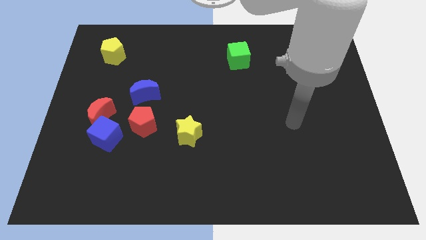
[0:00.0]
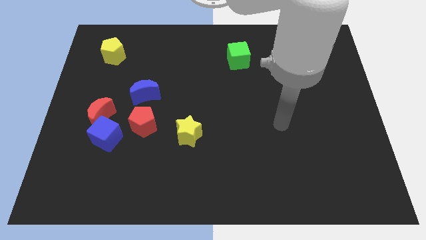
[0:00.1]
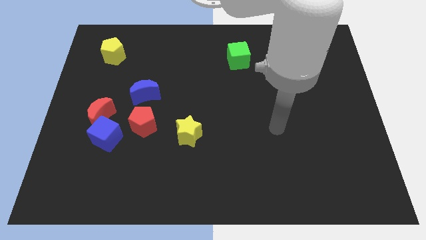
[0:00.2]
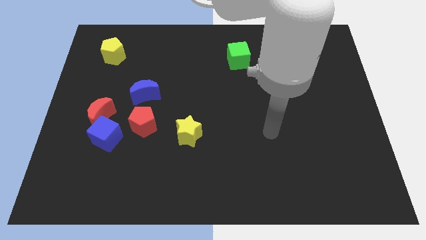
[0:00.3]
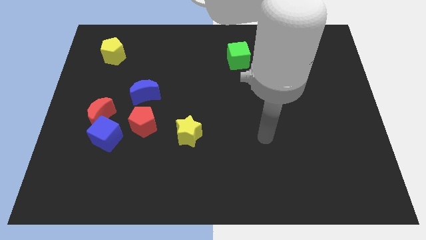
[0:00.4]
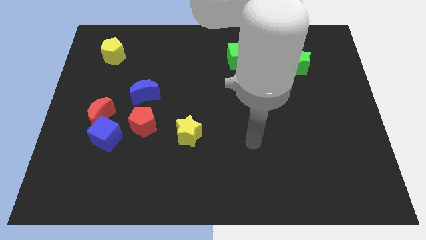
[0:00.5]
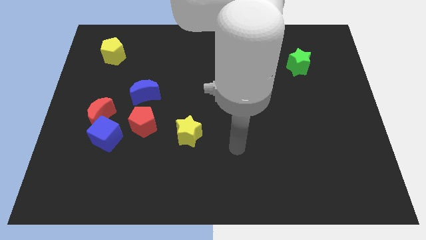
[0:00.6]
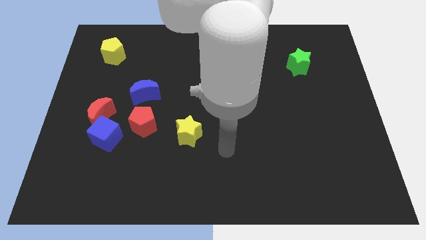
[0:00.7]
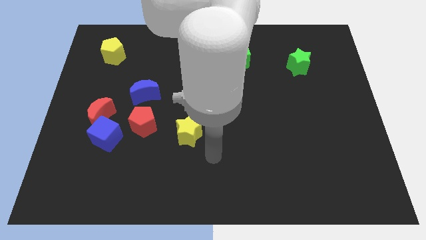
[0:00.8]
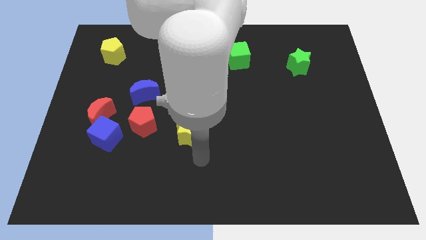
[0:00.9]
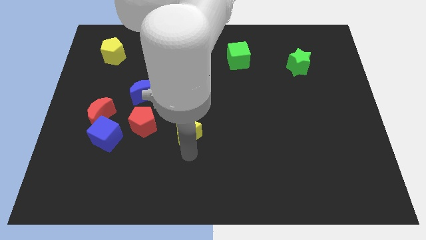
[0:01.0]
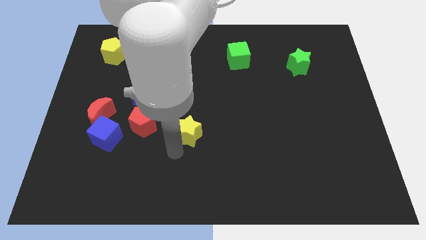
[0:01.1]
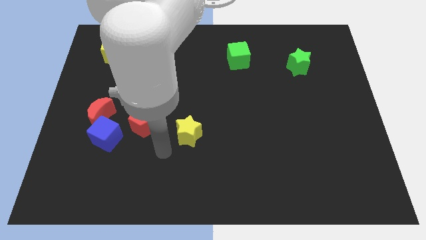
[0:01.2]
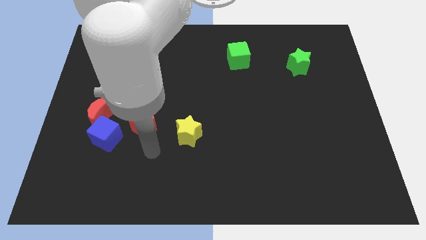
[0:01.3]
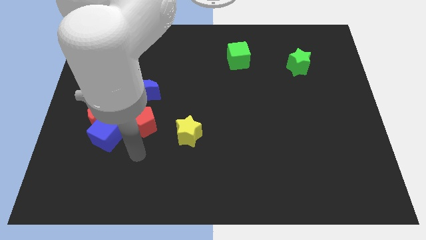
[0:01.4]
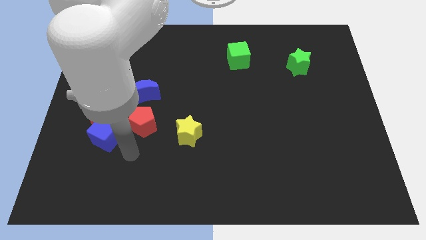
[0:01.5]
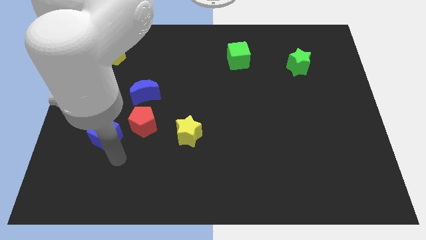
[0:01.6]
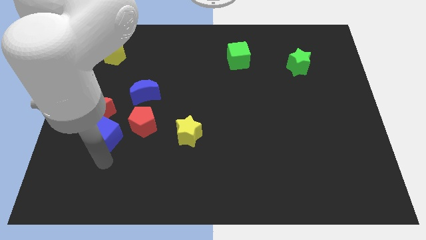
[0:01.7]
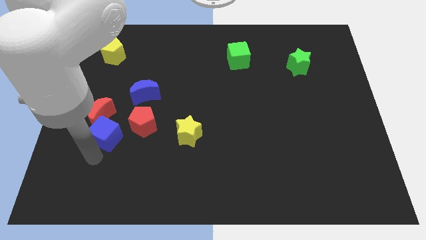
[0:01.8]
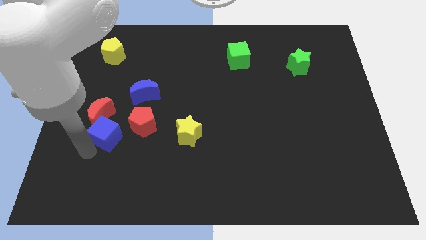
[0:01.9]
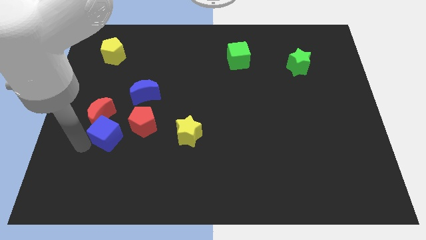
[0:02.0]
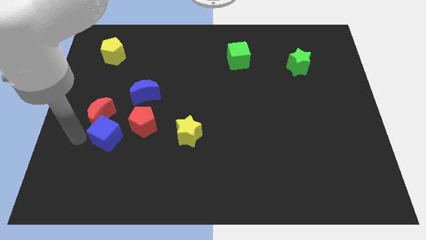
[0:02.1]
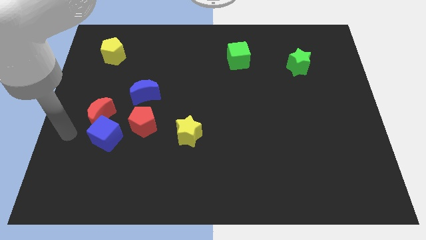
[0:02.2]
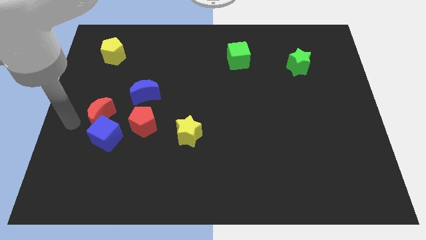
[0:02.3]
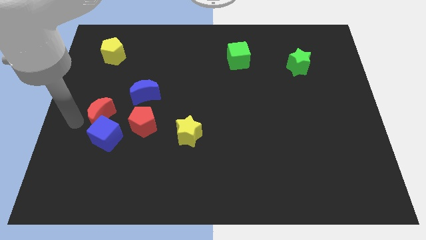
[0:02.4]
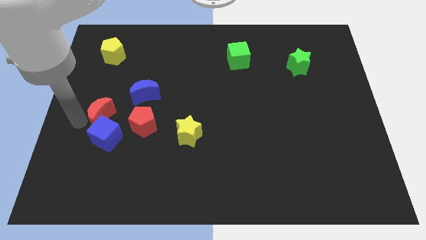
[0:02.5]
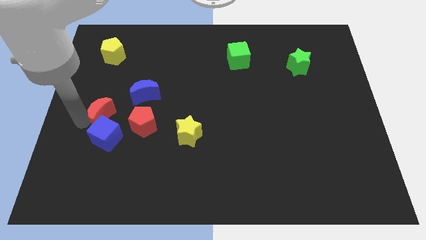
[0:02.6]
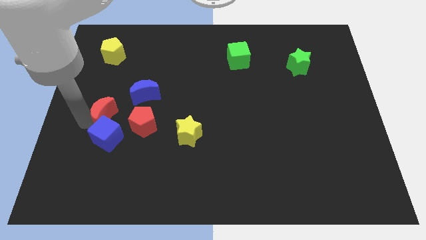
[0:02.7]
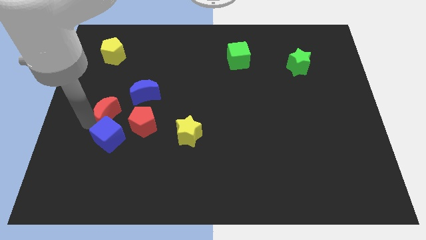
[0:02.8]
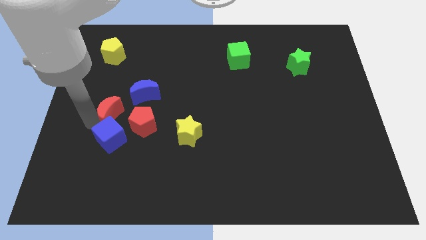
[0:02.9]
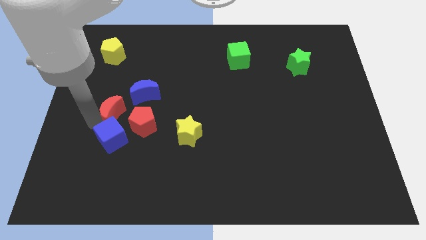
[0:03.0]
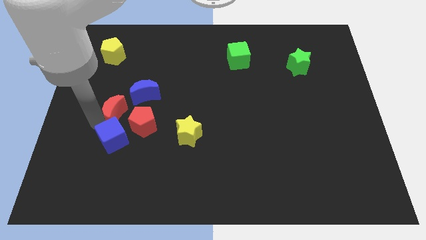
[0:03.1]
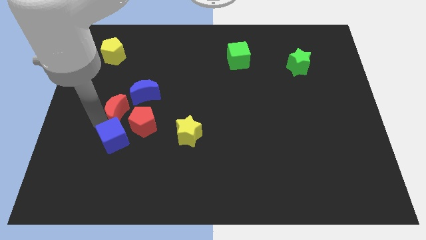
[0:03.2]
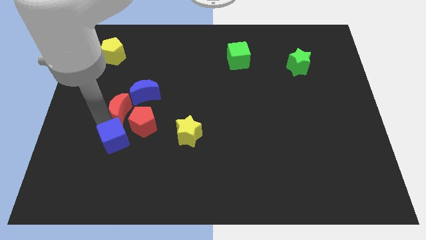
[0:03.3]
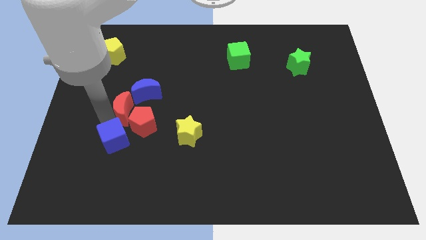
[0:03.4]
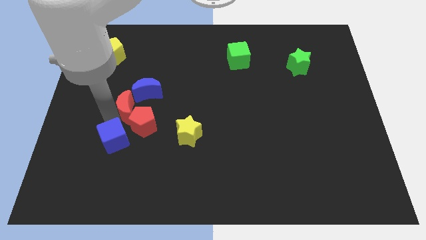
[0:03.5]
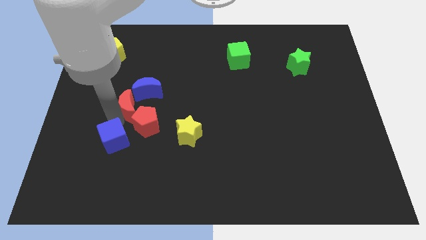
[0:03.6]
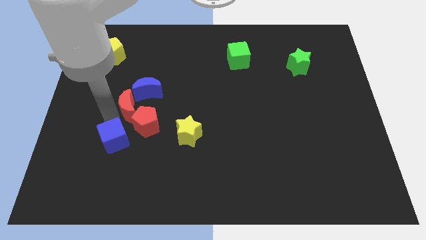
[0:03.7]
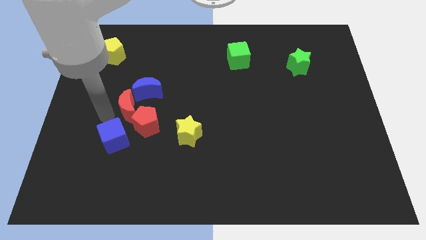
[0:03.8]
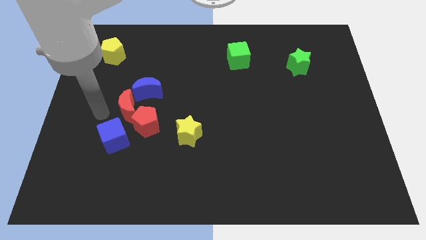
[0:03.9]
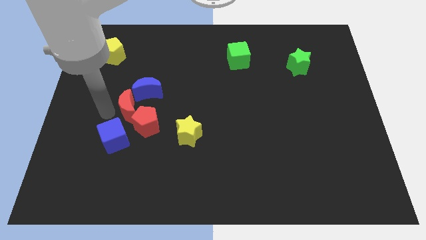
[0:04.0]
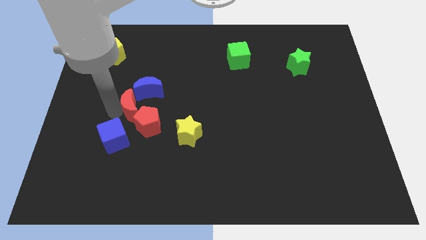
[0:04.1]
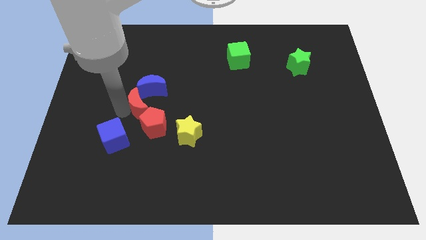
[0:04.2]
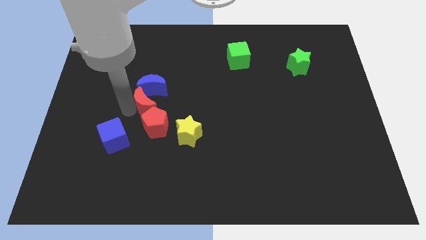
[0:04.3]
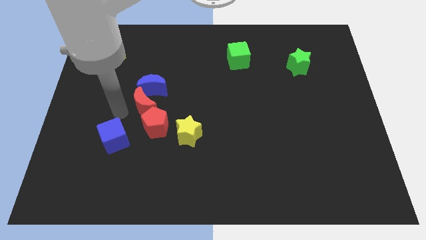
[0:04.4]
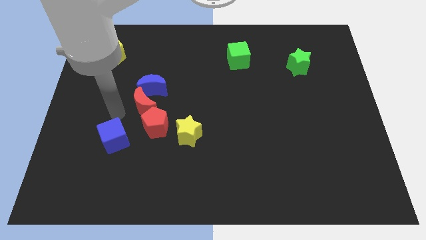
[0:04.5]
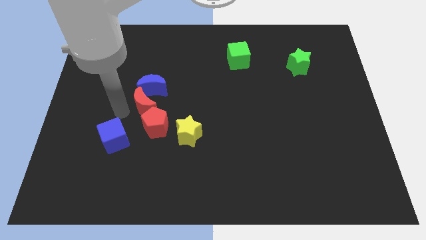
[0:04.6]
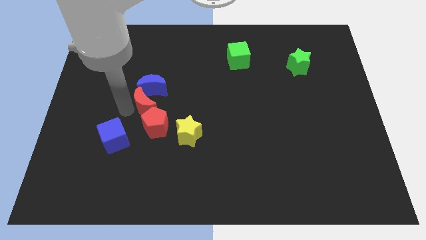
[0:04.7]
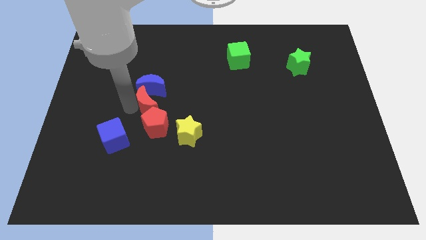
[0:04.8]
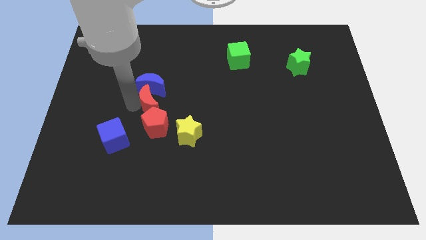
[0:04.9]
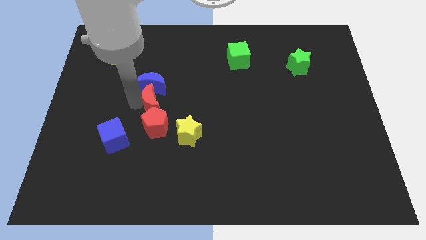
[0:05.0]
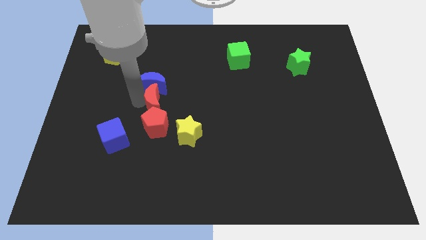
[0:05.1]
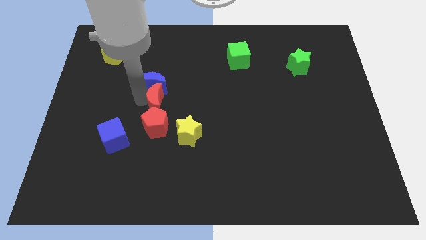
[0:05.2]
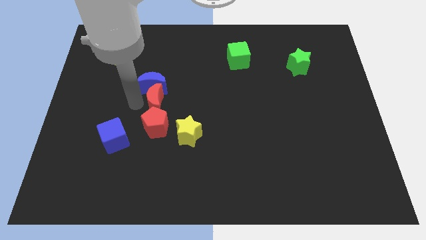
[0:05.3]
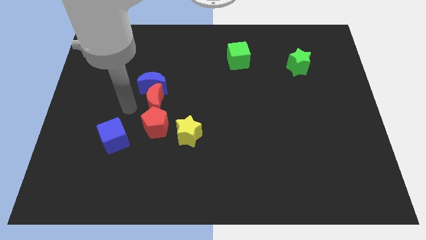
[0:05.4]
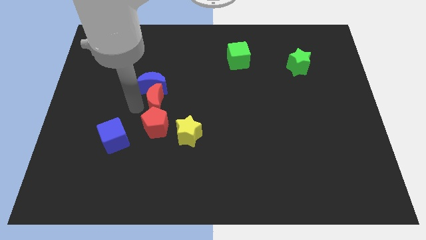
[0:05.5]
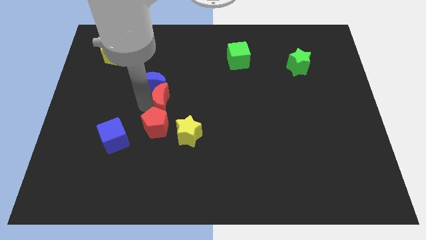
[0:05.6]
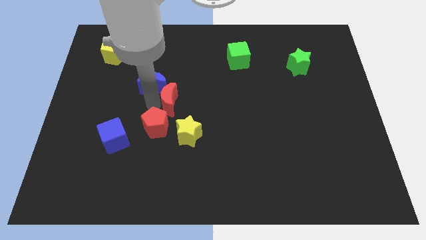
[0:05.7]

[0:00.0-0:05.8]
move the red moon to the top of the yellow star

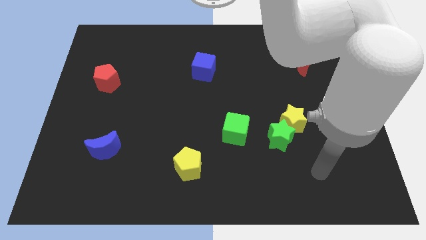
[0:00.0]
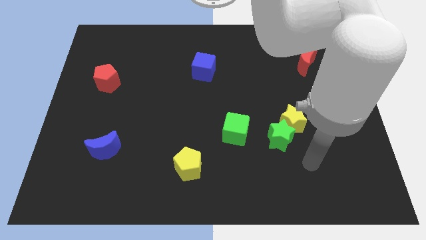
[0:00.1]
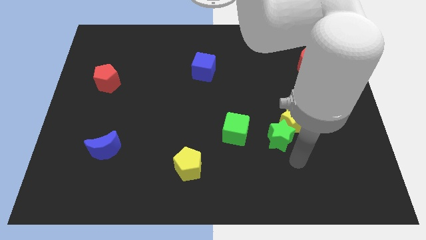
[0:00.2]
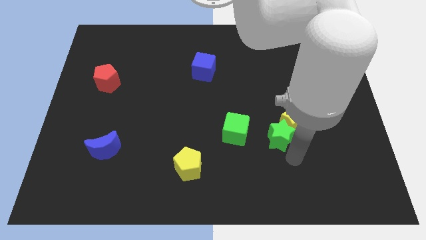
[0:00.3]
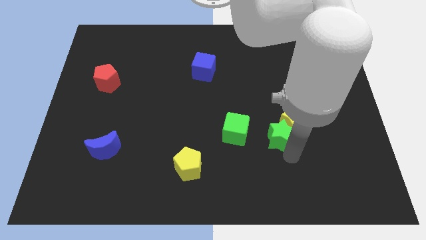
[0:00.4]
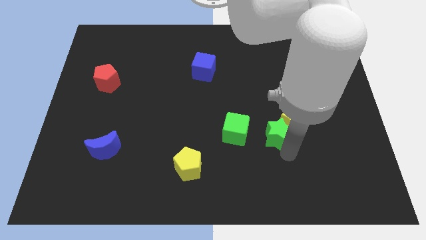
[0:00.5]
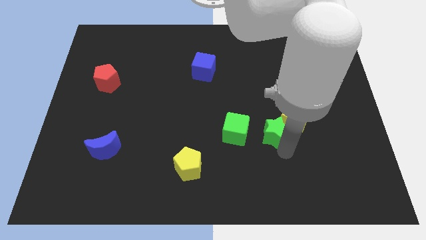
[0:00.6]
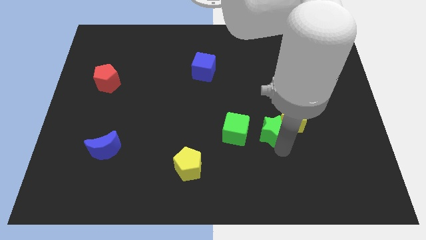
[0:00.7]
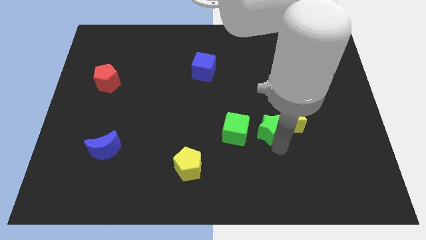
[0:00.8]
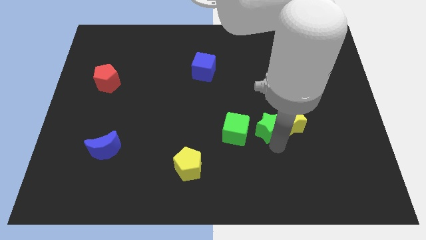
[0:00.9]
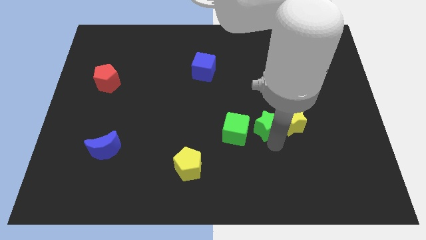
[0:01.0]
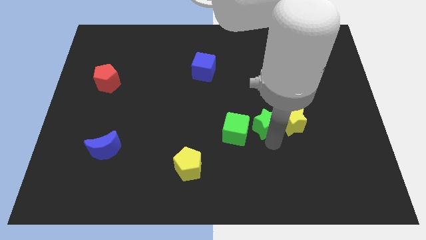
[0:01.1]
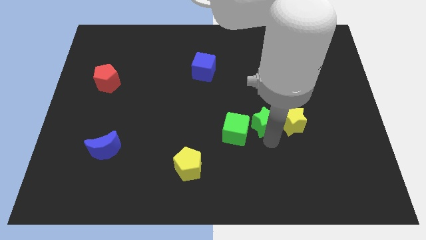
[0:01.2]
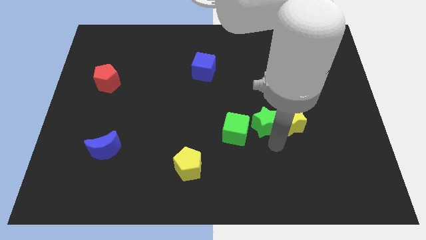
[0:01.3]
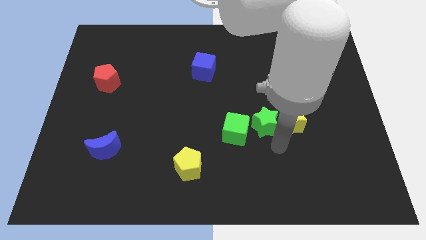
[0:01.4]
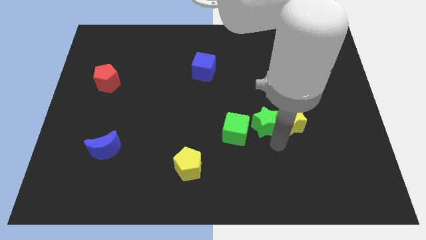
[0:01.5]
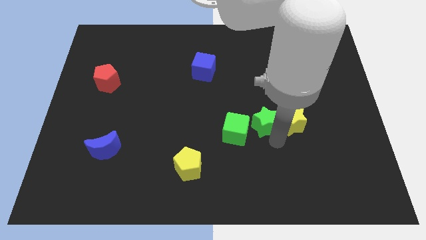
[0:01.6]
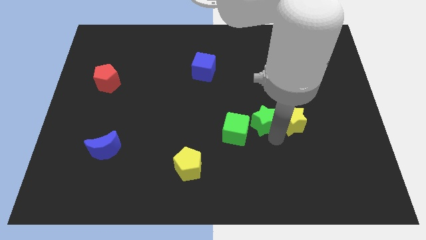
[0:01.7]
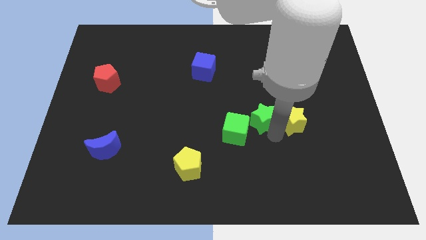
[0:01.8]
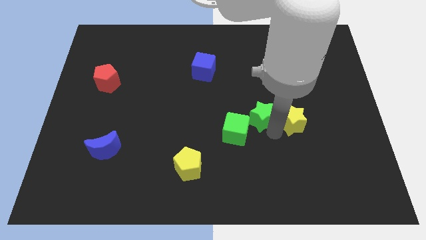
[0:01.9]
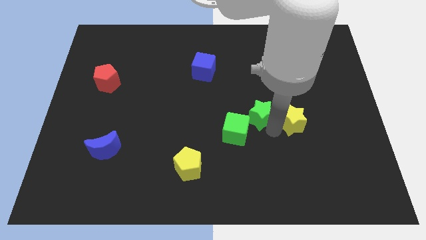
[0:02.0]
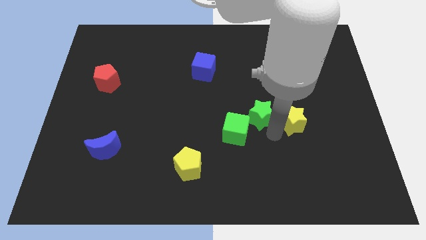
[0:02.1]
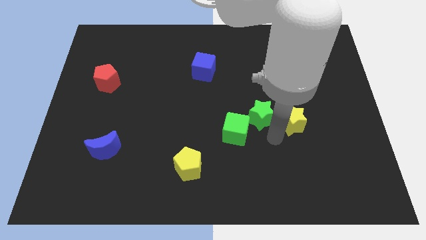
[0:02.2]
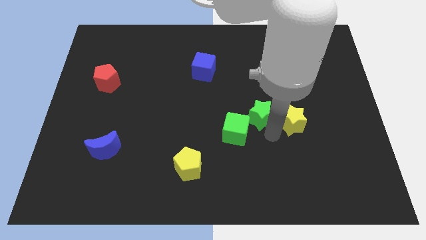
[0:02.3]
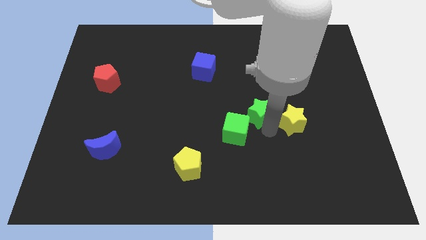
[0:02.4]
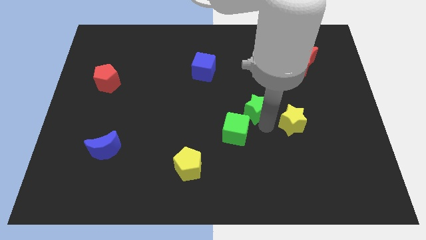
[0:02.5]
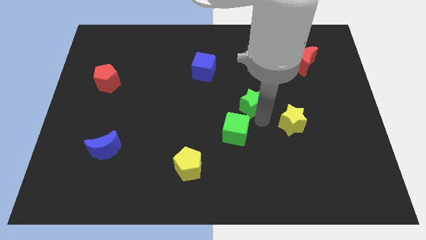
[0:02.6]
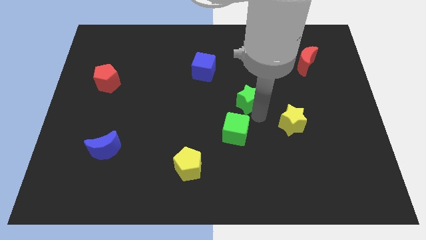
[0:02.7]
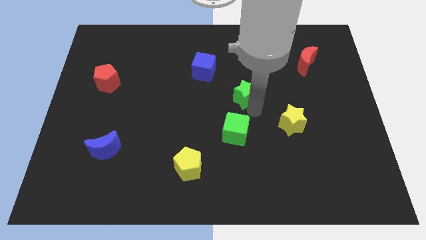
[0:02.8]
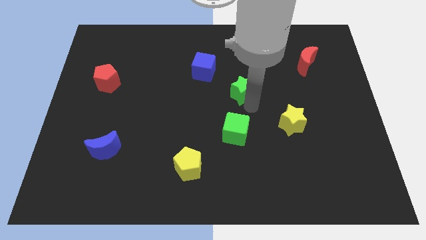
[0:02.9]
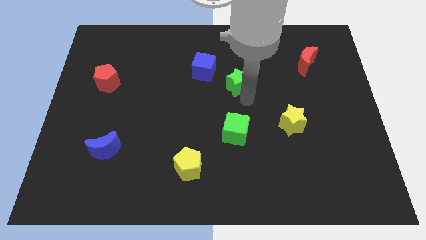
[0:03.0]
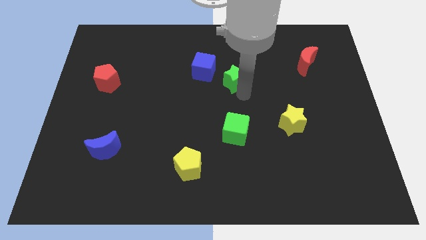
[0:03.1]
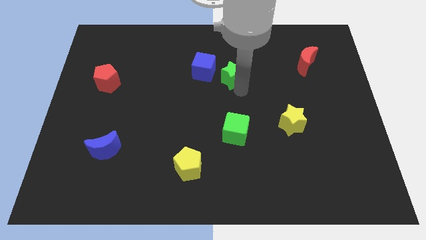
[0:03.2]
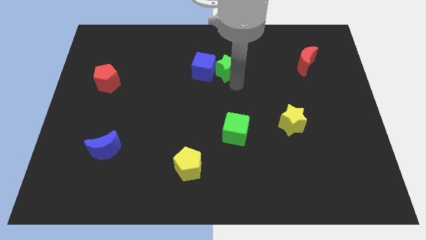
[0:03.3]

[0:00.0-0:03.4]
push the green star diagonally up and to the right of the blue cube
